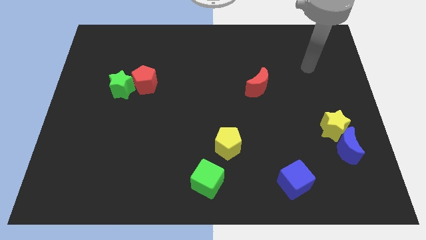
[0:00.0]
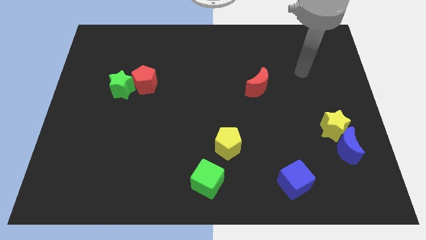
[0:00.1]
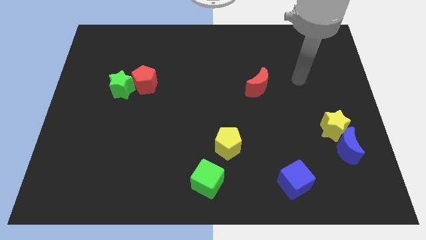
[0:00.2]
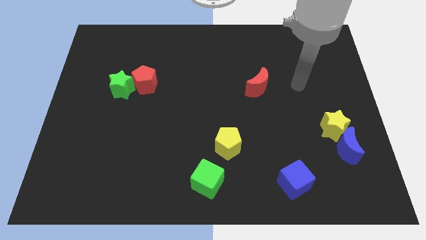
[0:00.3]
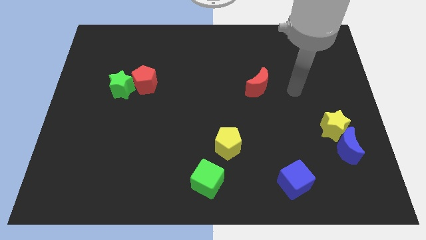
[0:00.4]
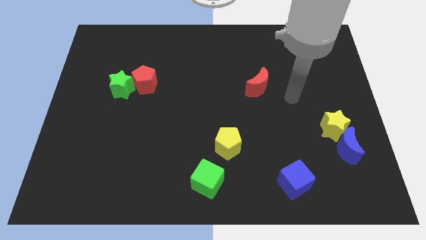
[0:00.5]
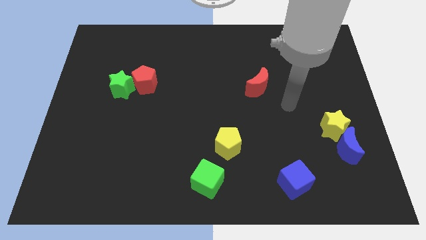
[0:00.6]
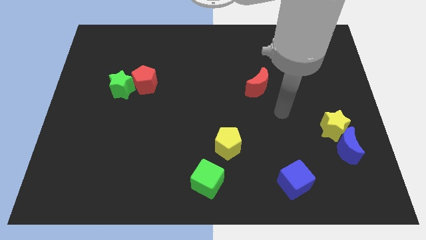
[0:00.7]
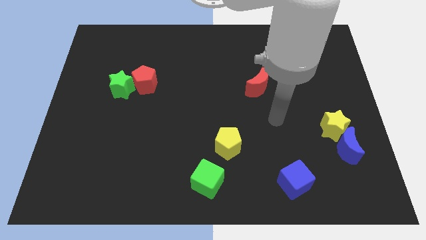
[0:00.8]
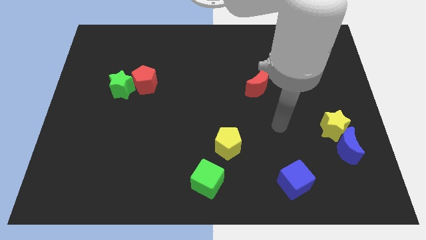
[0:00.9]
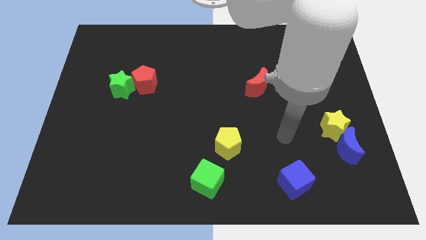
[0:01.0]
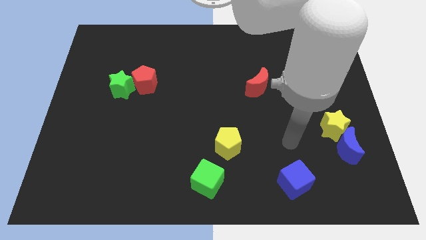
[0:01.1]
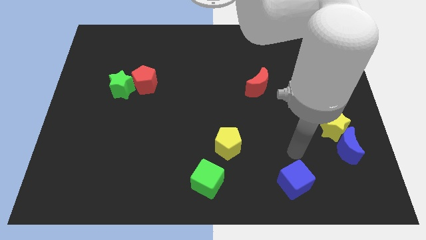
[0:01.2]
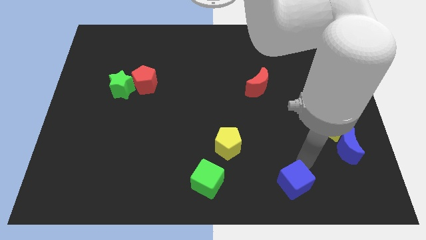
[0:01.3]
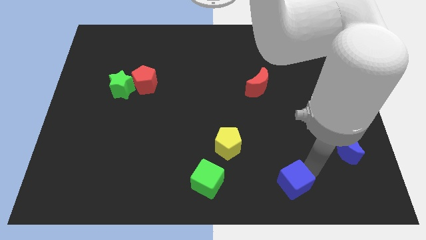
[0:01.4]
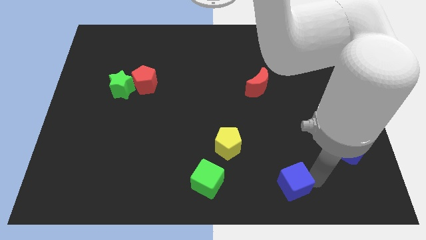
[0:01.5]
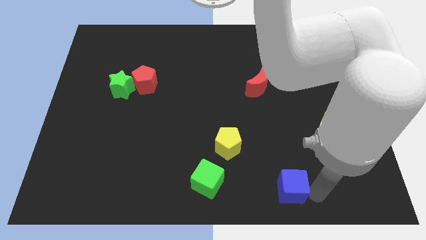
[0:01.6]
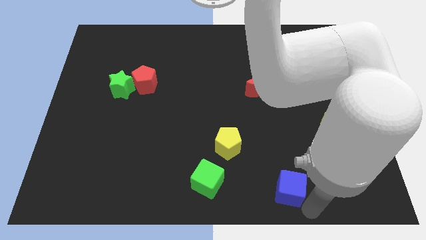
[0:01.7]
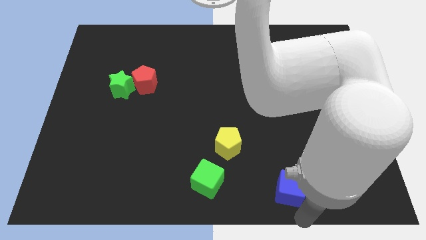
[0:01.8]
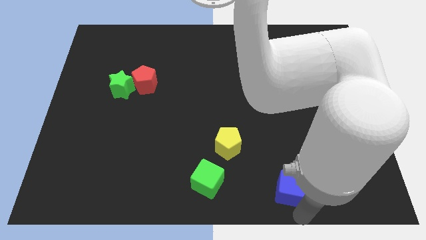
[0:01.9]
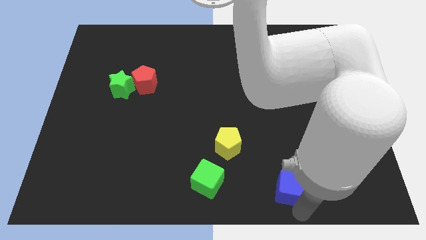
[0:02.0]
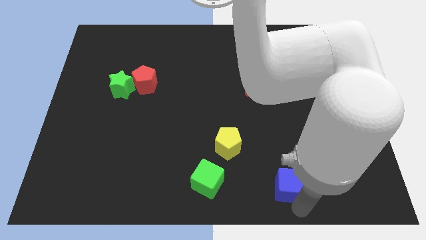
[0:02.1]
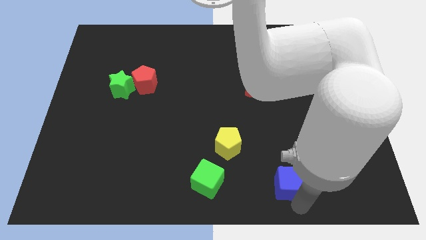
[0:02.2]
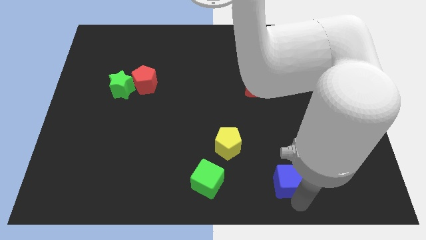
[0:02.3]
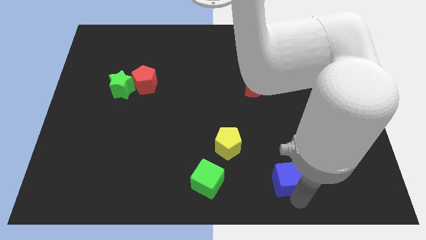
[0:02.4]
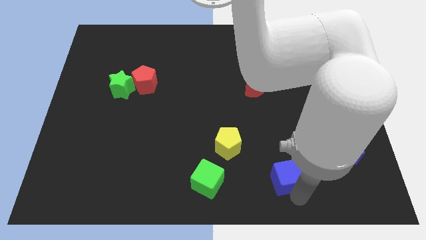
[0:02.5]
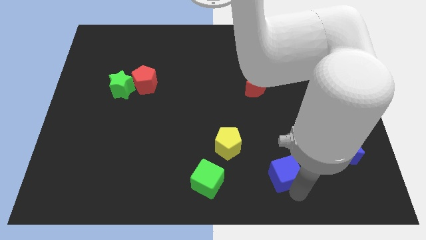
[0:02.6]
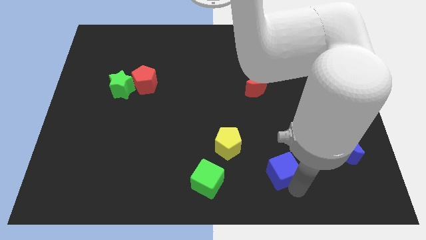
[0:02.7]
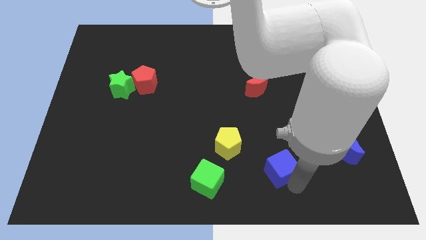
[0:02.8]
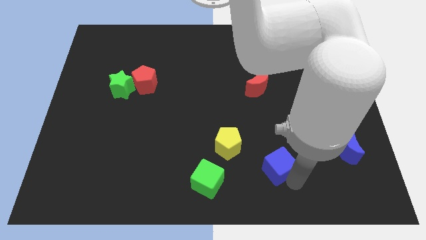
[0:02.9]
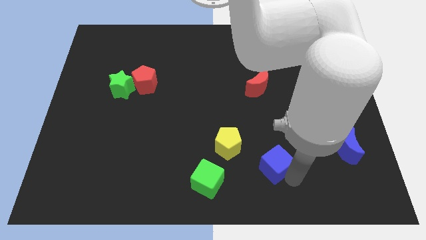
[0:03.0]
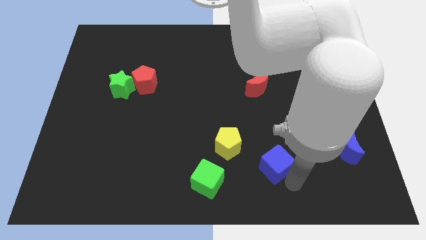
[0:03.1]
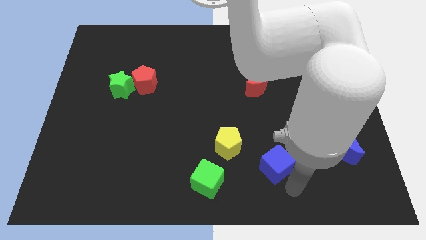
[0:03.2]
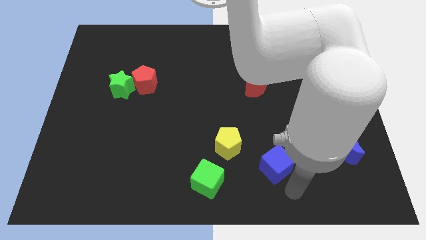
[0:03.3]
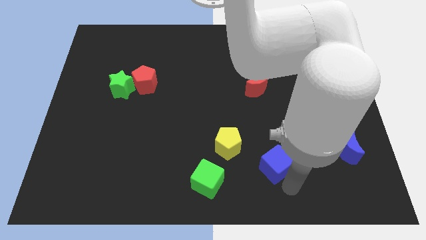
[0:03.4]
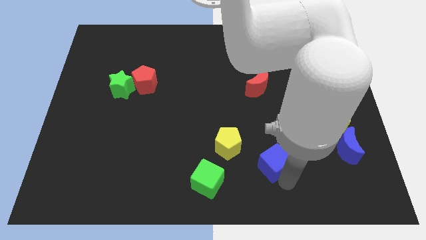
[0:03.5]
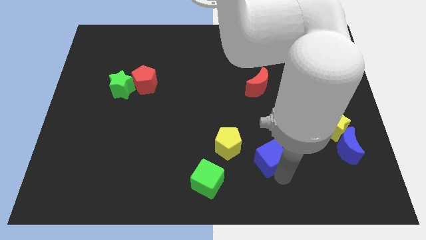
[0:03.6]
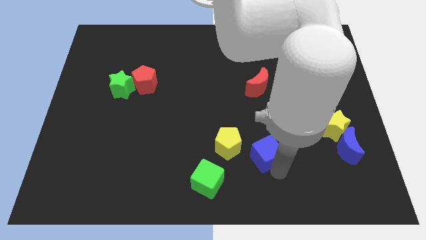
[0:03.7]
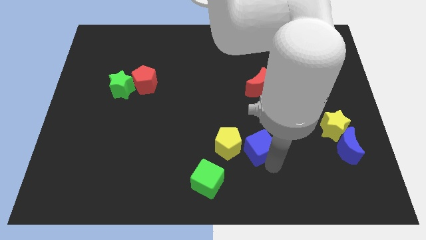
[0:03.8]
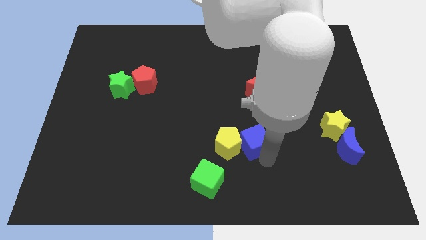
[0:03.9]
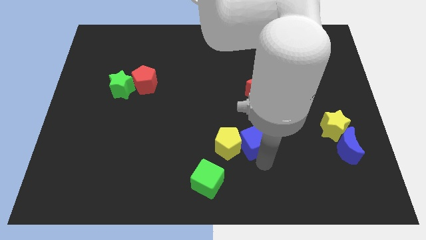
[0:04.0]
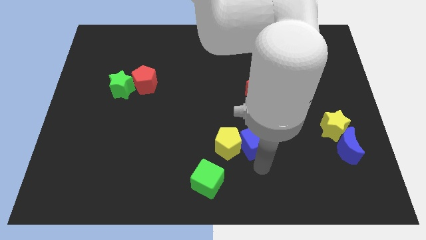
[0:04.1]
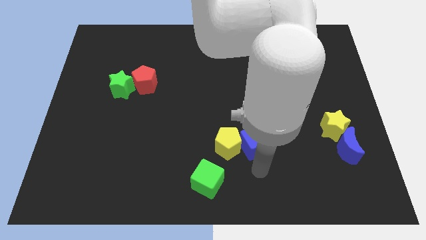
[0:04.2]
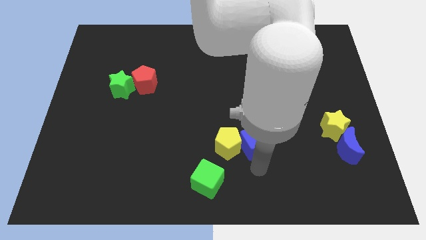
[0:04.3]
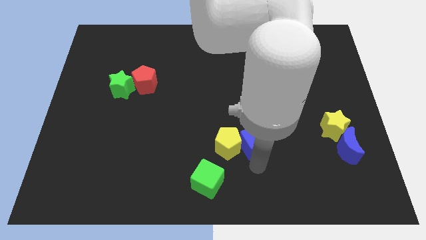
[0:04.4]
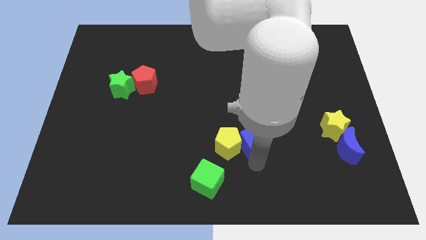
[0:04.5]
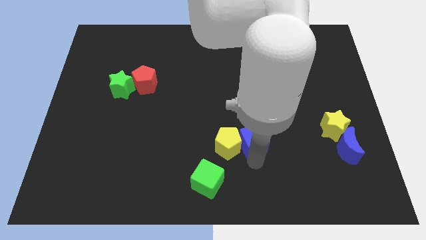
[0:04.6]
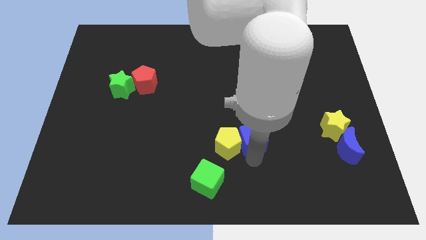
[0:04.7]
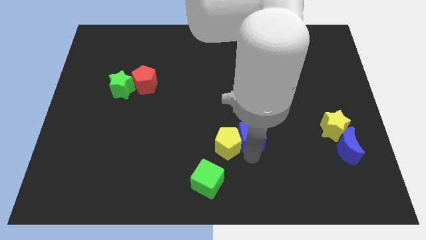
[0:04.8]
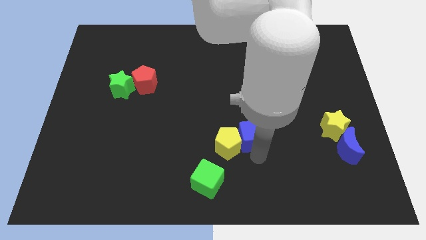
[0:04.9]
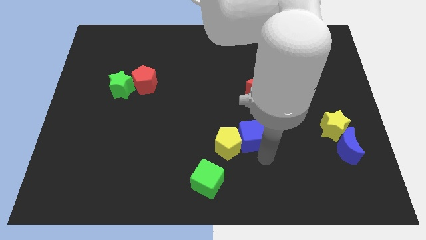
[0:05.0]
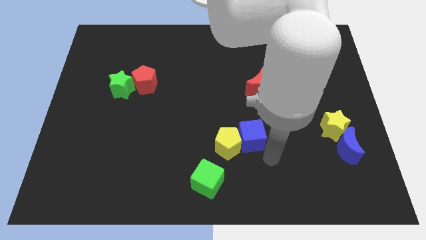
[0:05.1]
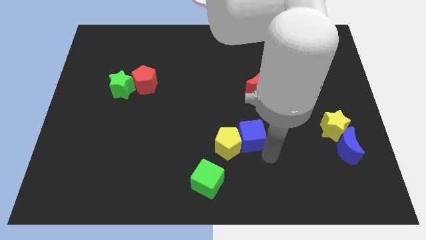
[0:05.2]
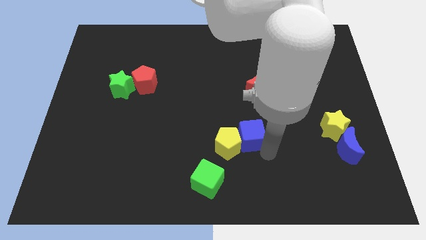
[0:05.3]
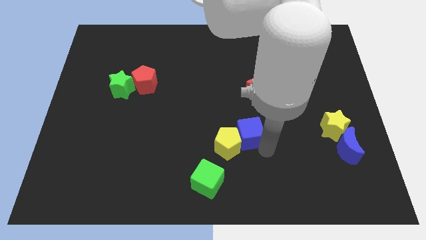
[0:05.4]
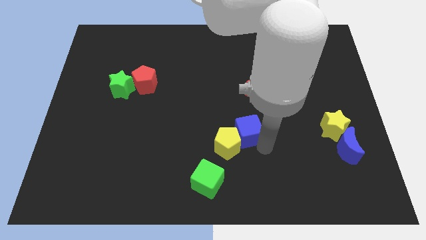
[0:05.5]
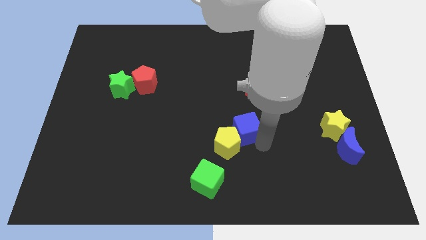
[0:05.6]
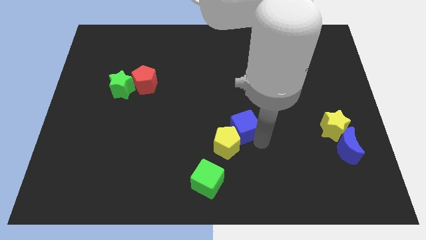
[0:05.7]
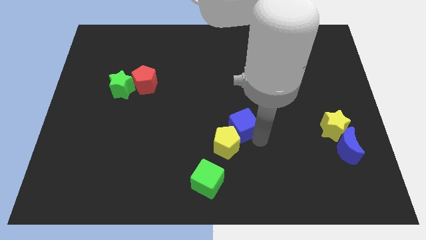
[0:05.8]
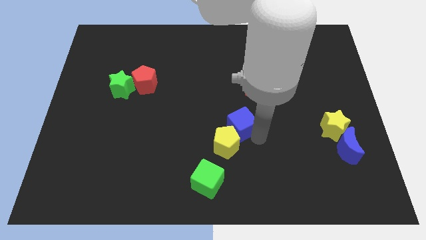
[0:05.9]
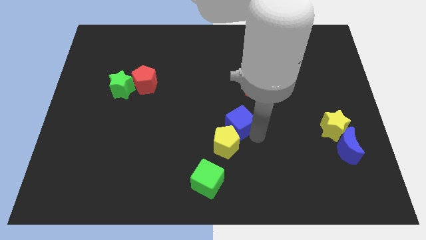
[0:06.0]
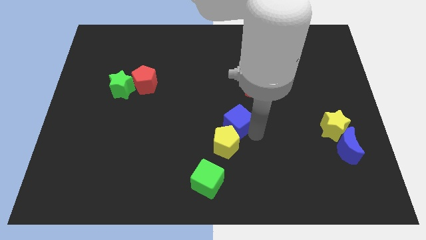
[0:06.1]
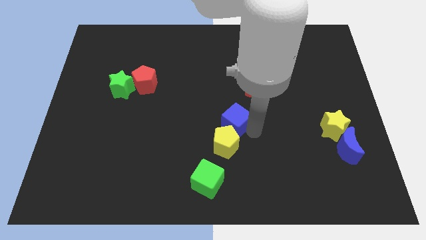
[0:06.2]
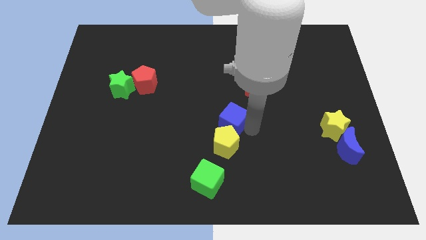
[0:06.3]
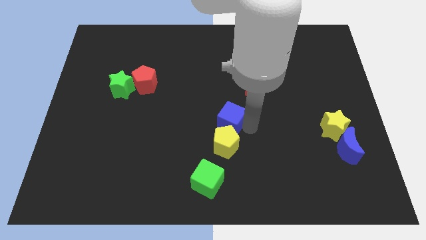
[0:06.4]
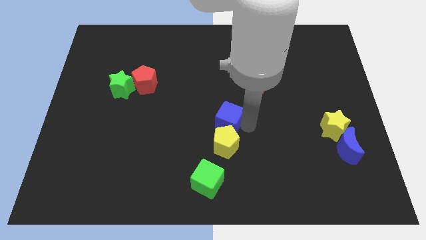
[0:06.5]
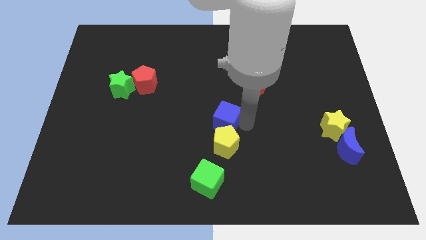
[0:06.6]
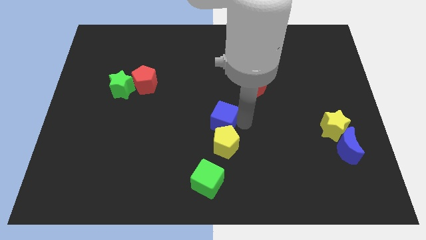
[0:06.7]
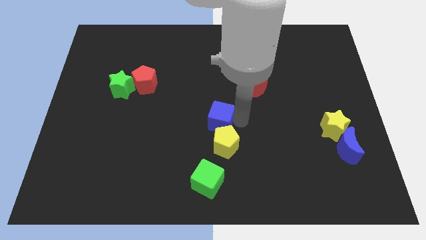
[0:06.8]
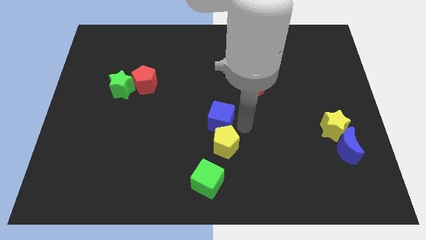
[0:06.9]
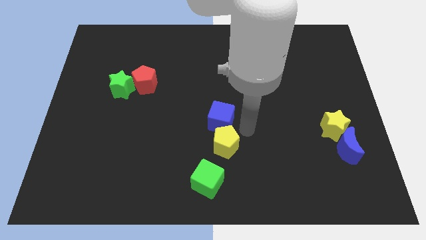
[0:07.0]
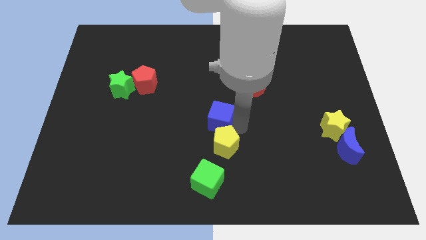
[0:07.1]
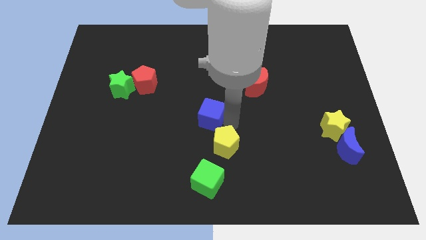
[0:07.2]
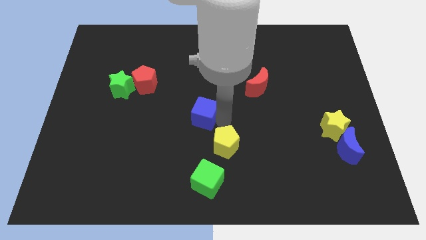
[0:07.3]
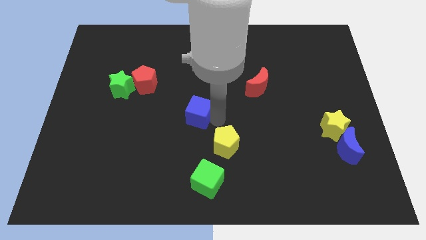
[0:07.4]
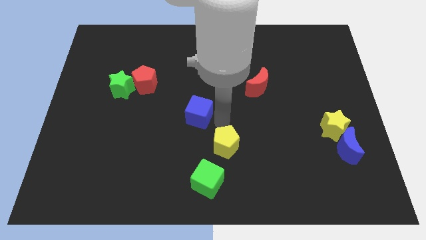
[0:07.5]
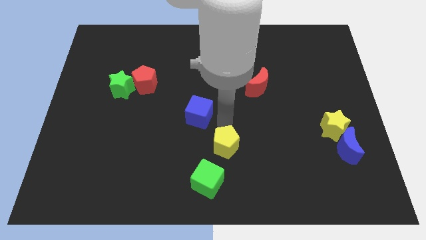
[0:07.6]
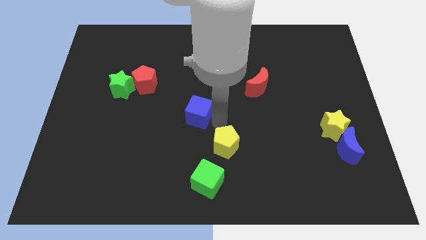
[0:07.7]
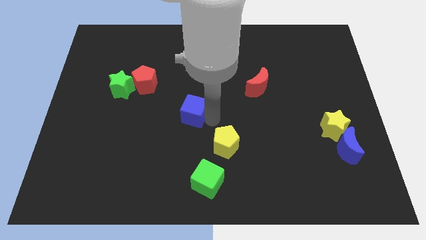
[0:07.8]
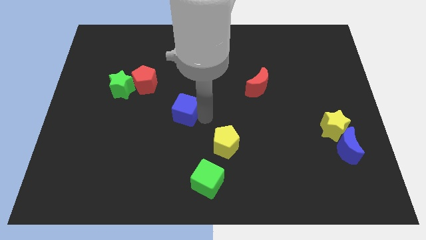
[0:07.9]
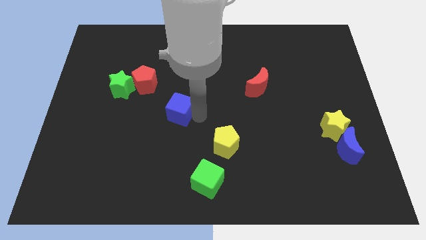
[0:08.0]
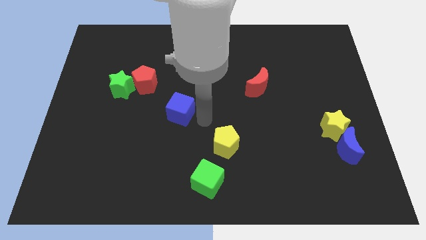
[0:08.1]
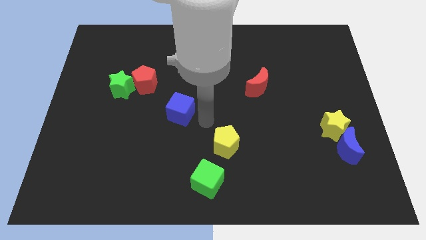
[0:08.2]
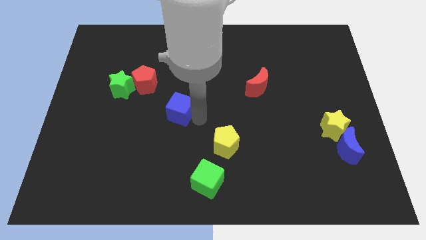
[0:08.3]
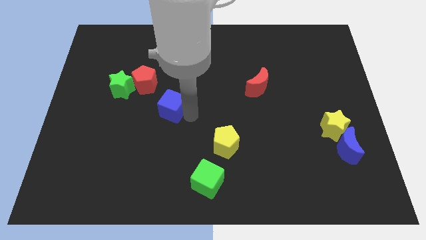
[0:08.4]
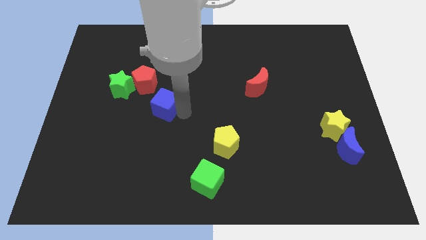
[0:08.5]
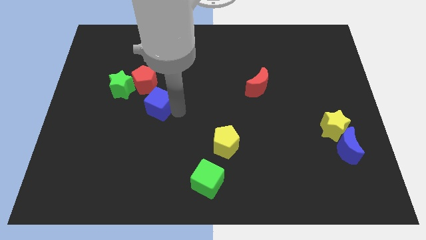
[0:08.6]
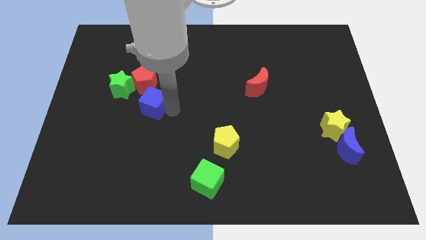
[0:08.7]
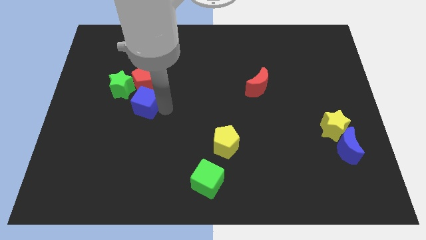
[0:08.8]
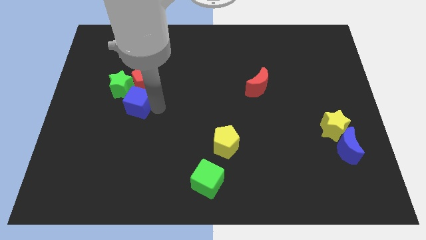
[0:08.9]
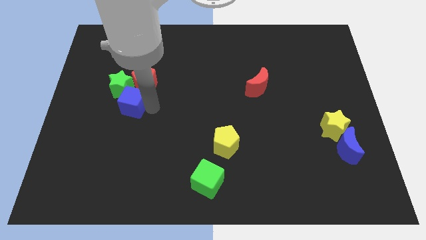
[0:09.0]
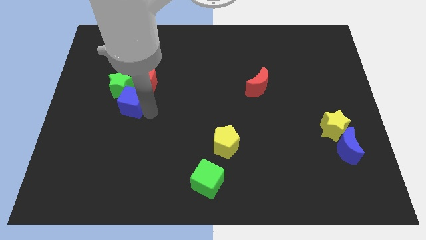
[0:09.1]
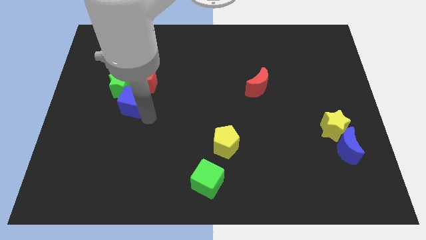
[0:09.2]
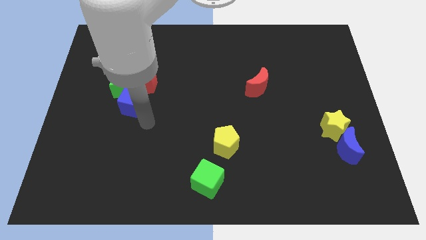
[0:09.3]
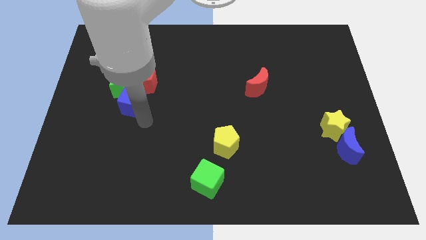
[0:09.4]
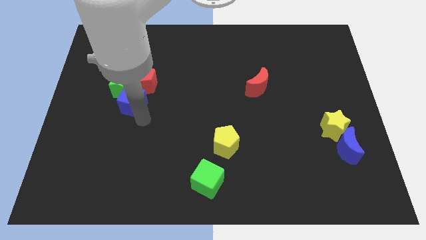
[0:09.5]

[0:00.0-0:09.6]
push the blue cube to the green star
